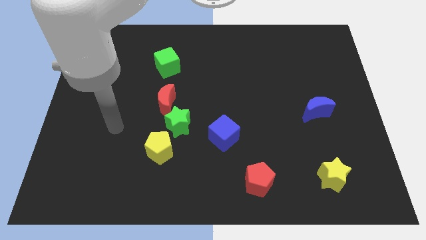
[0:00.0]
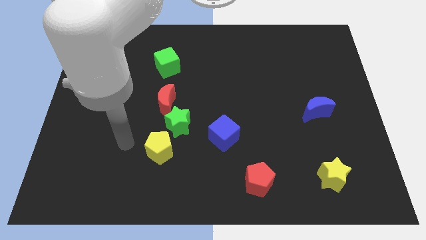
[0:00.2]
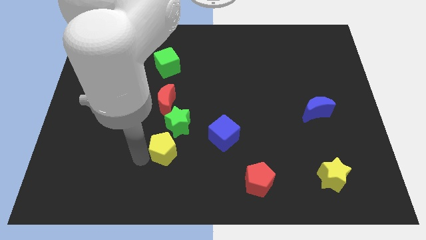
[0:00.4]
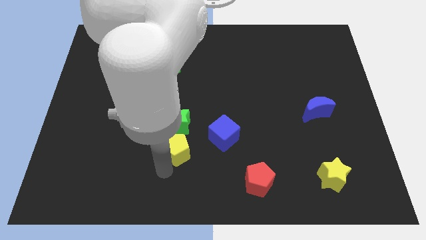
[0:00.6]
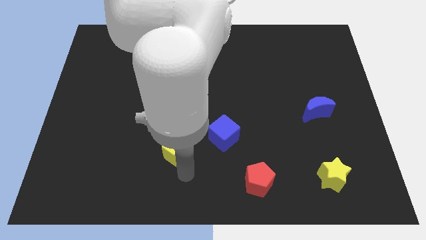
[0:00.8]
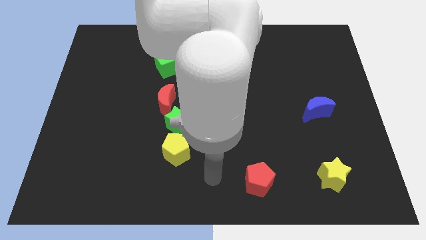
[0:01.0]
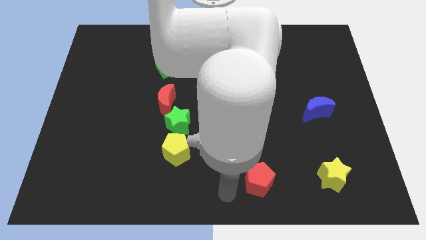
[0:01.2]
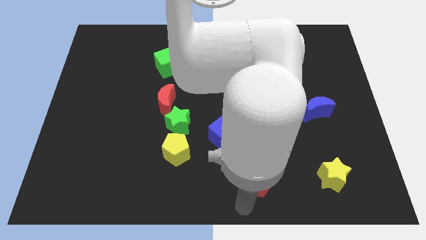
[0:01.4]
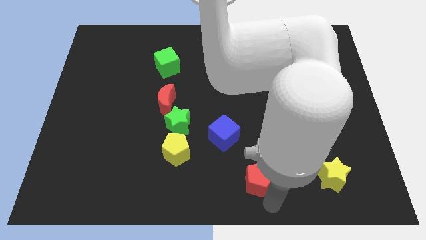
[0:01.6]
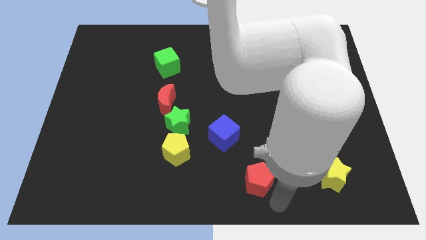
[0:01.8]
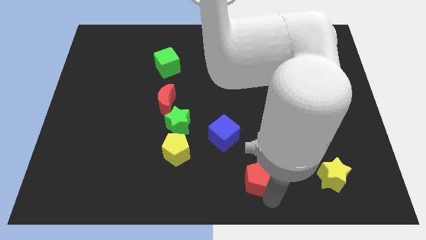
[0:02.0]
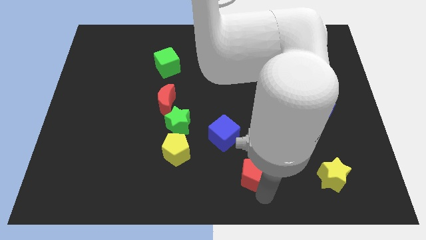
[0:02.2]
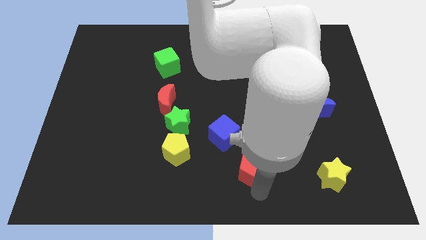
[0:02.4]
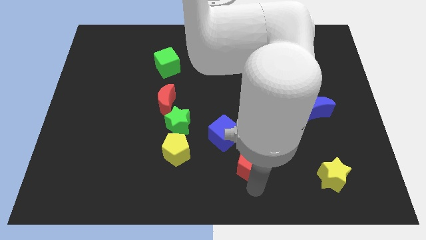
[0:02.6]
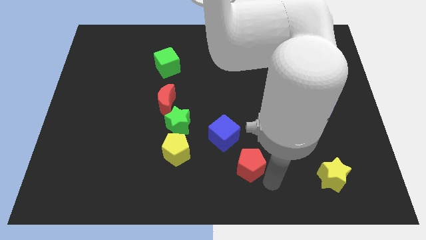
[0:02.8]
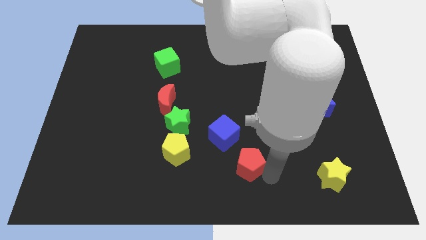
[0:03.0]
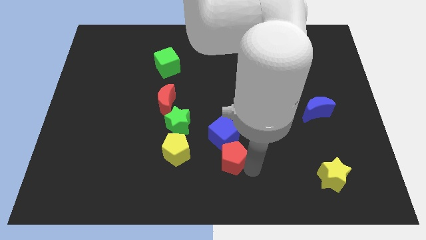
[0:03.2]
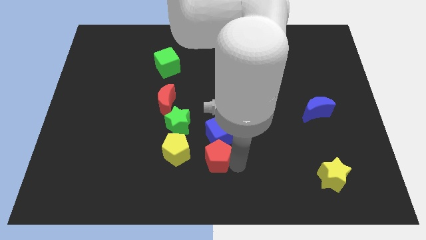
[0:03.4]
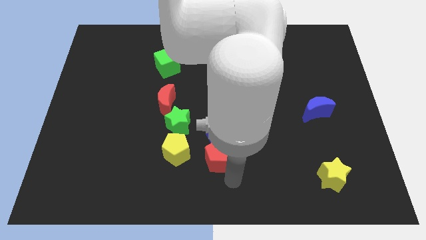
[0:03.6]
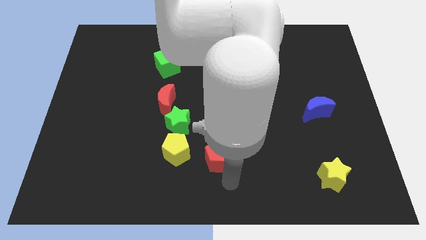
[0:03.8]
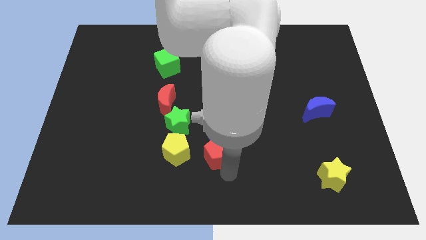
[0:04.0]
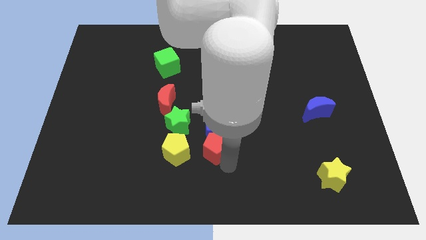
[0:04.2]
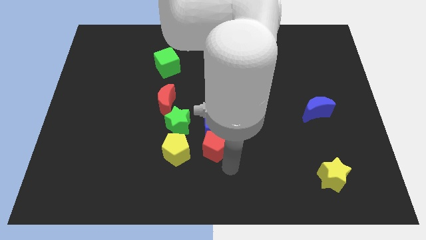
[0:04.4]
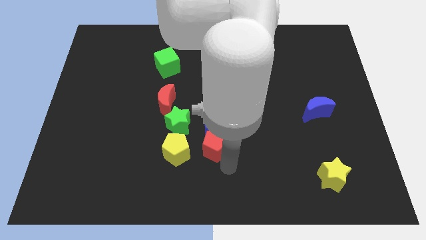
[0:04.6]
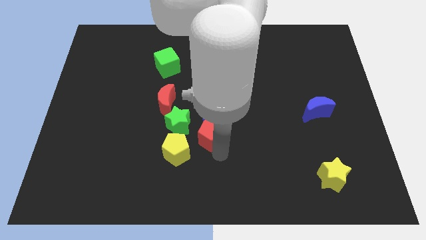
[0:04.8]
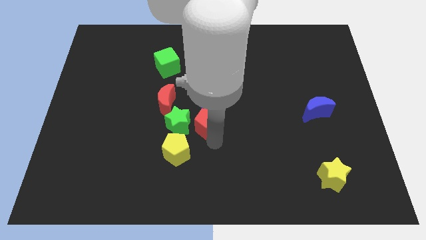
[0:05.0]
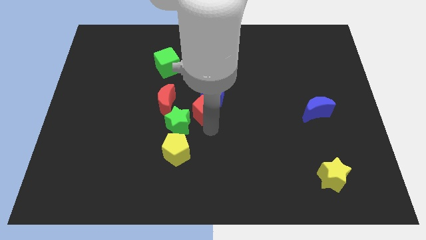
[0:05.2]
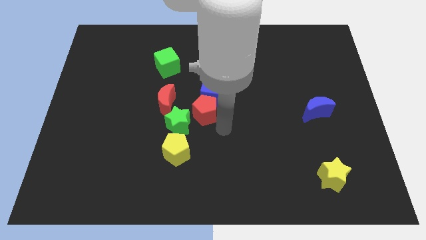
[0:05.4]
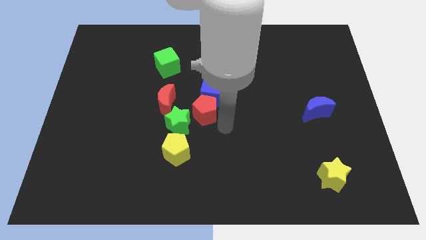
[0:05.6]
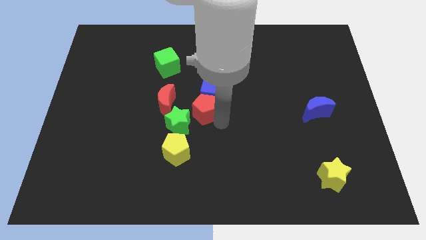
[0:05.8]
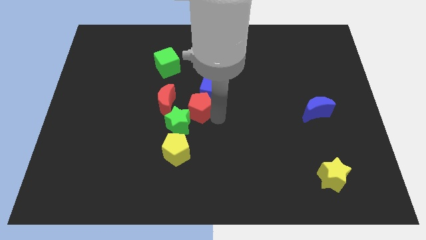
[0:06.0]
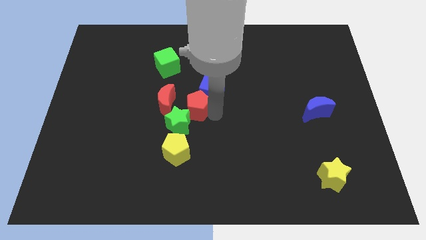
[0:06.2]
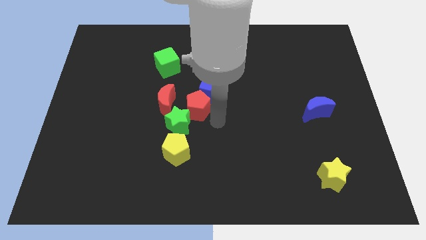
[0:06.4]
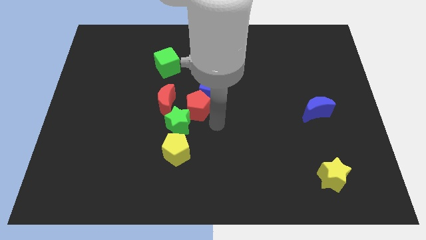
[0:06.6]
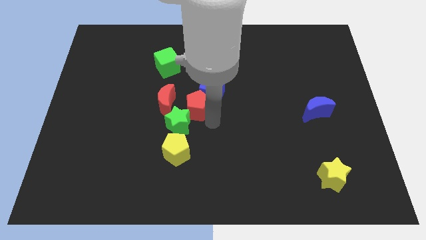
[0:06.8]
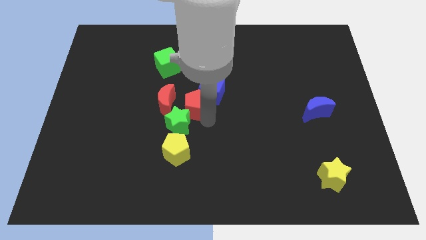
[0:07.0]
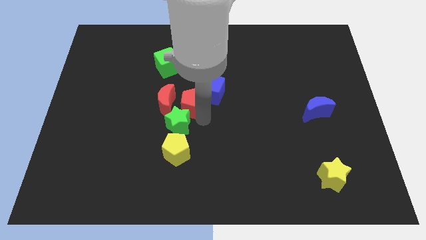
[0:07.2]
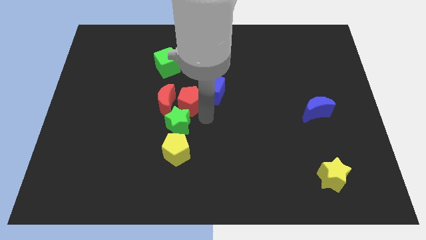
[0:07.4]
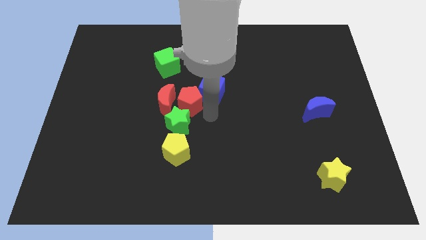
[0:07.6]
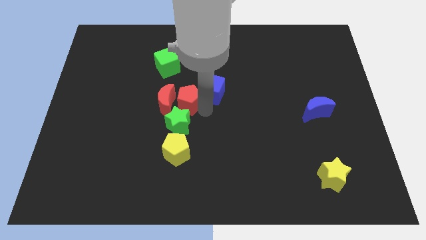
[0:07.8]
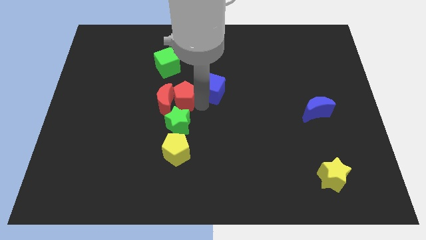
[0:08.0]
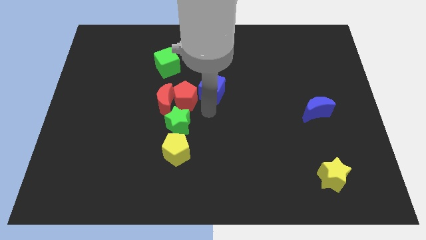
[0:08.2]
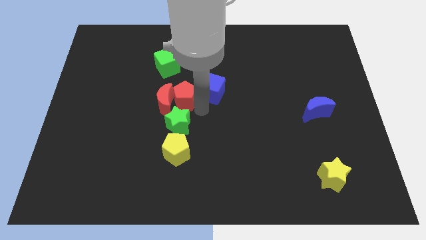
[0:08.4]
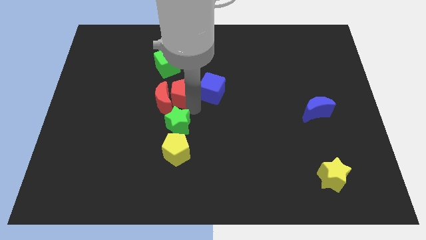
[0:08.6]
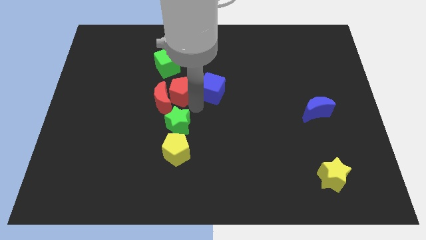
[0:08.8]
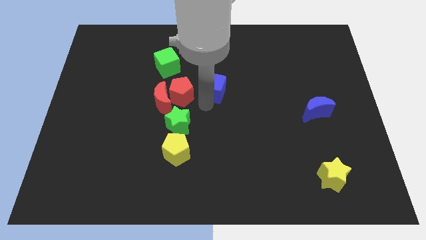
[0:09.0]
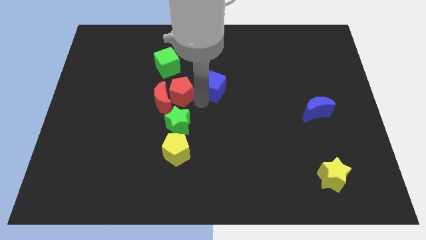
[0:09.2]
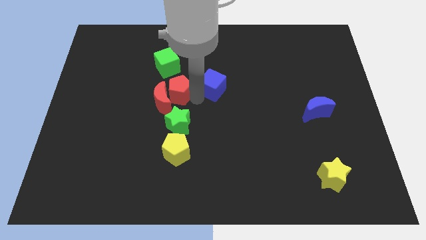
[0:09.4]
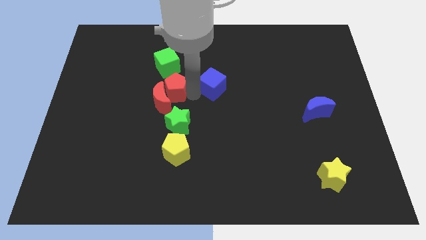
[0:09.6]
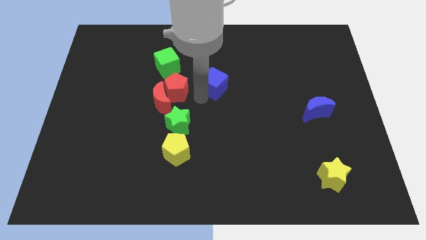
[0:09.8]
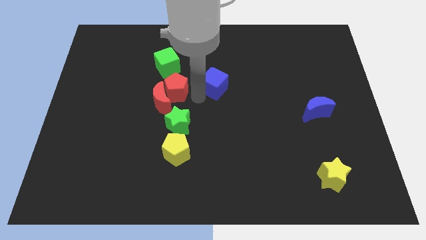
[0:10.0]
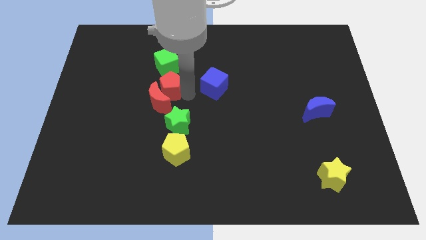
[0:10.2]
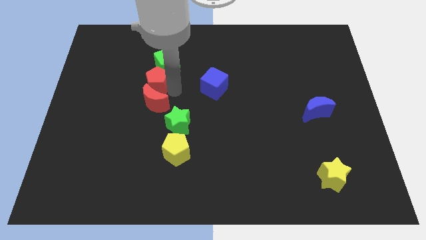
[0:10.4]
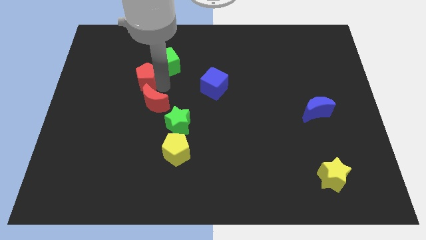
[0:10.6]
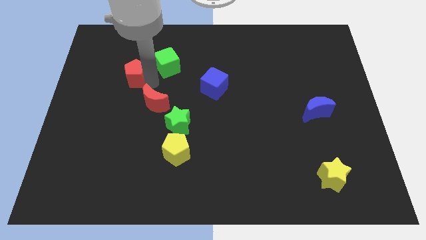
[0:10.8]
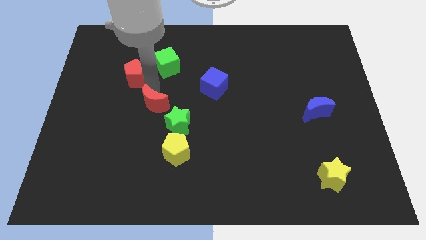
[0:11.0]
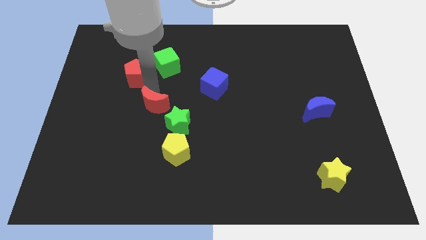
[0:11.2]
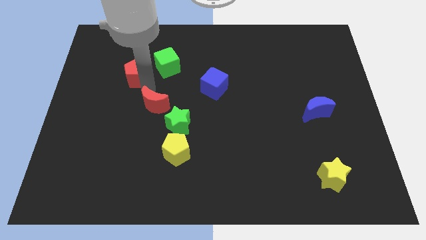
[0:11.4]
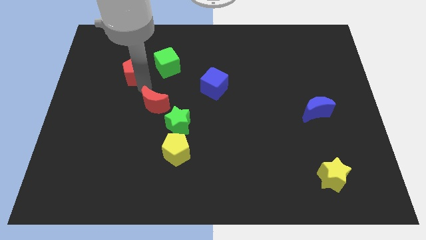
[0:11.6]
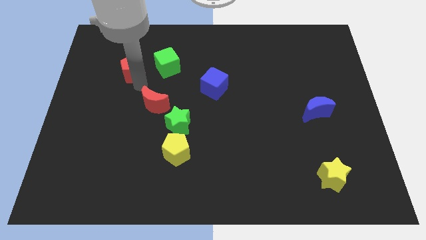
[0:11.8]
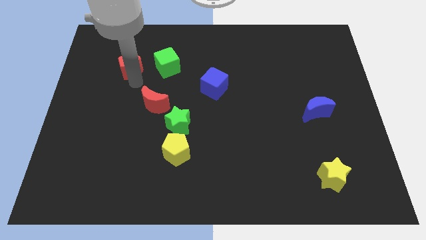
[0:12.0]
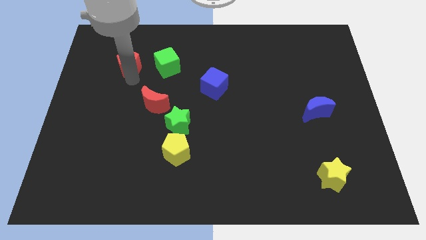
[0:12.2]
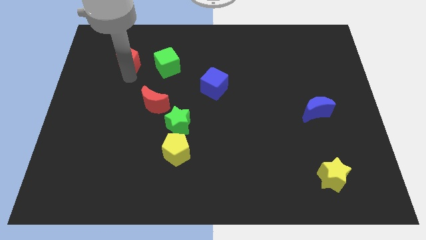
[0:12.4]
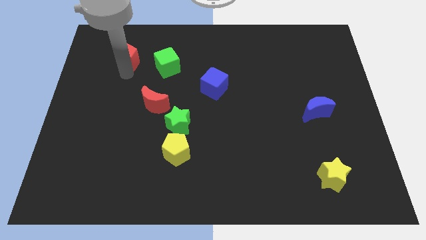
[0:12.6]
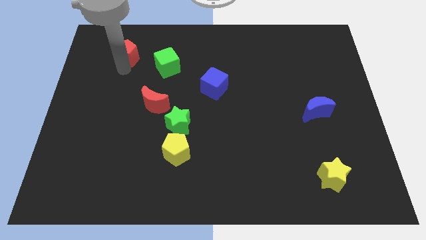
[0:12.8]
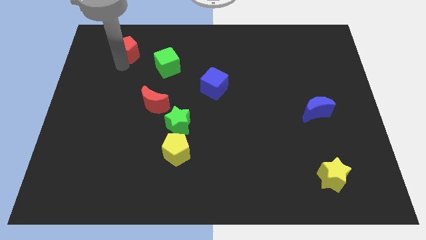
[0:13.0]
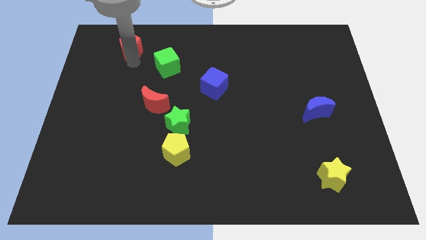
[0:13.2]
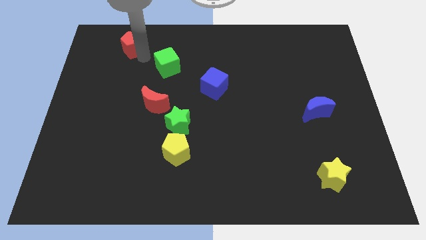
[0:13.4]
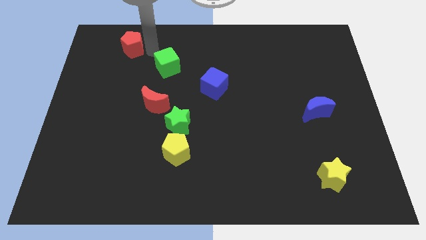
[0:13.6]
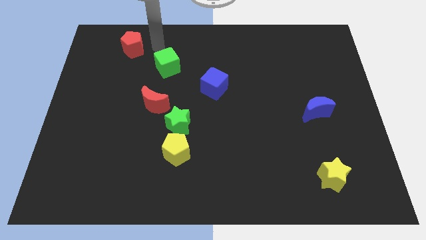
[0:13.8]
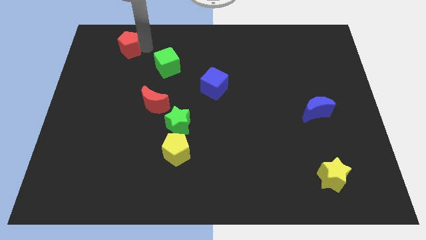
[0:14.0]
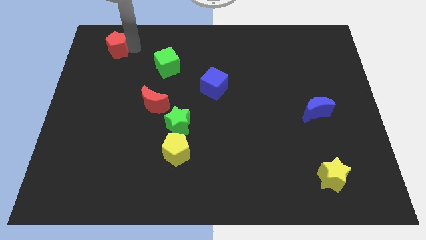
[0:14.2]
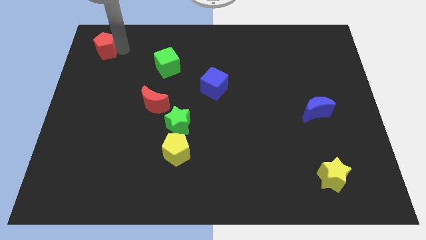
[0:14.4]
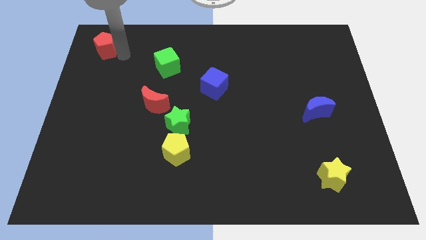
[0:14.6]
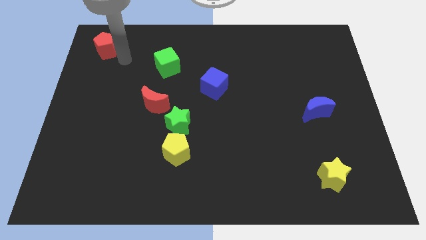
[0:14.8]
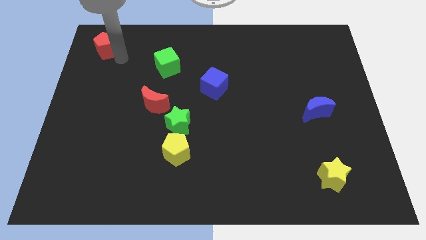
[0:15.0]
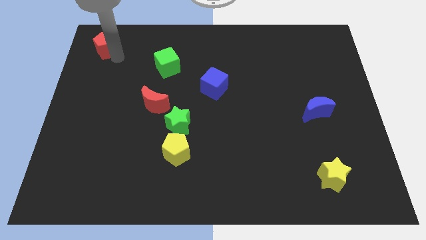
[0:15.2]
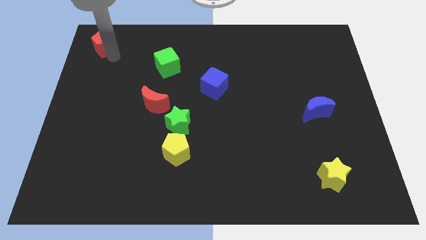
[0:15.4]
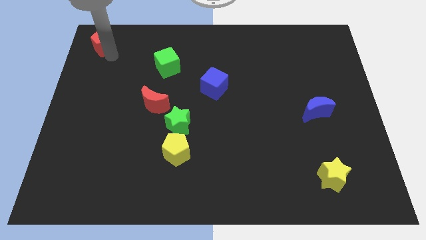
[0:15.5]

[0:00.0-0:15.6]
slide the red pentagon to the top left
